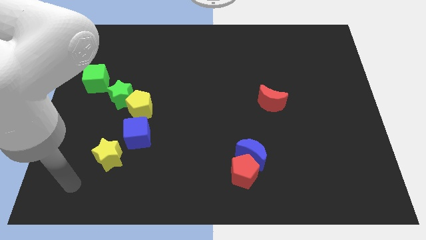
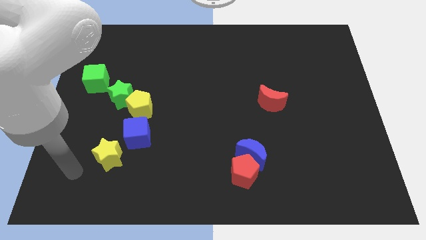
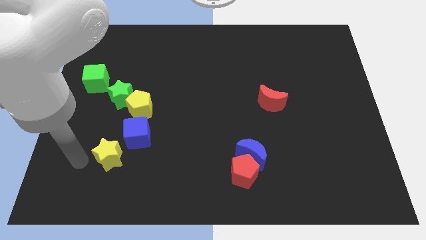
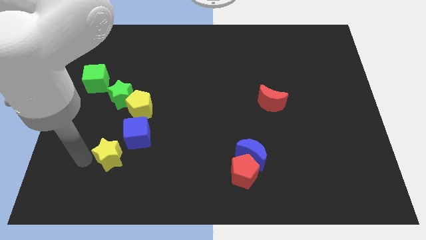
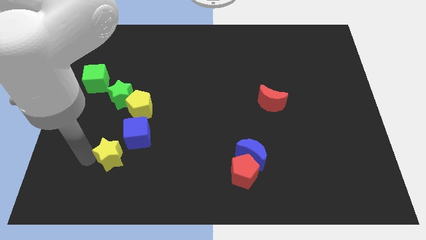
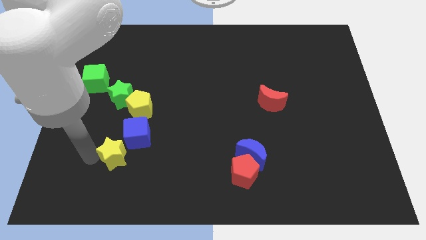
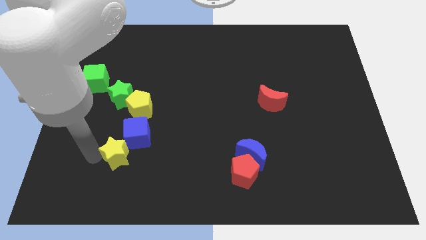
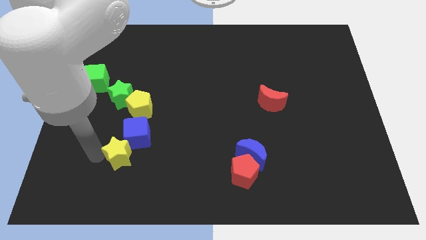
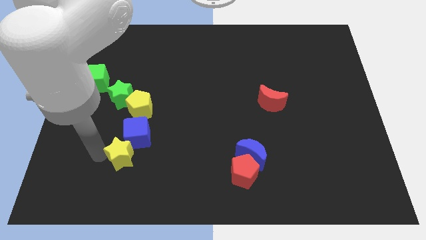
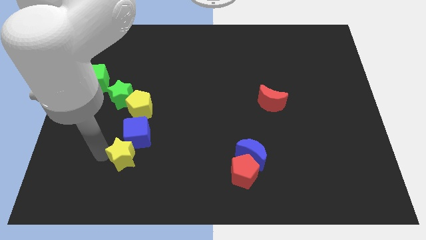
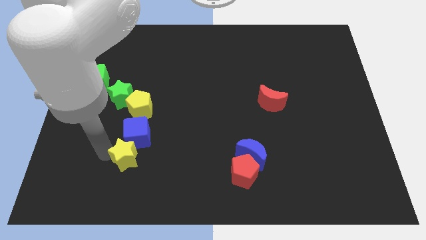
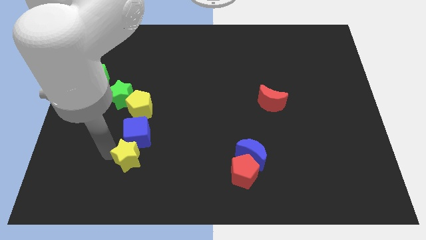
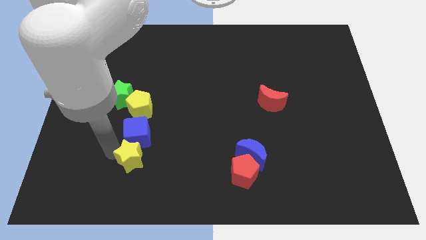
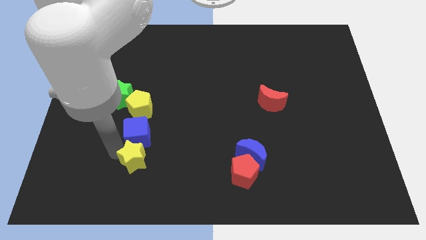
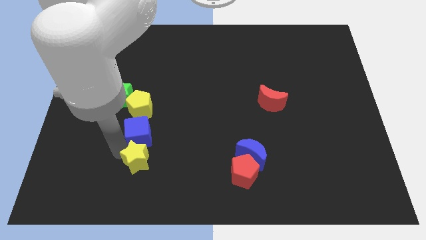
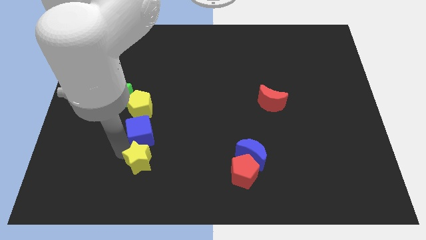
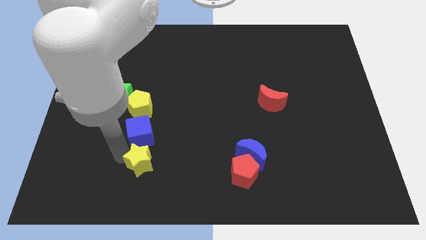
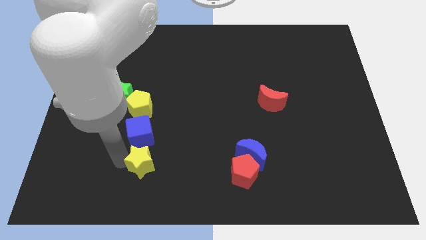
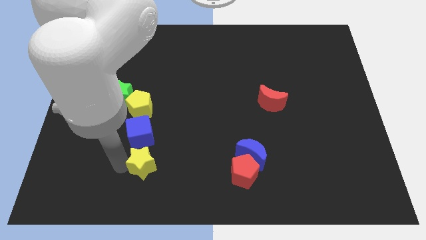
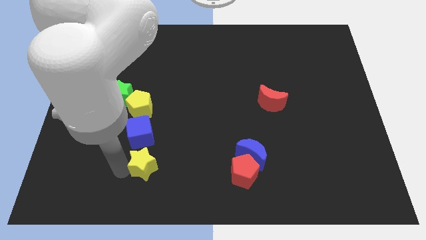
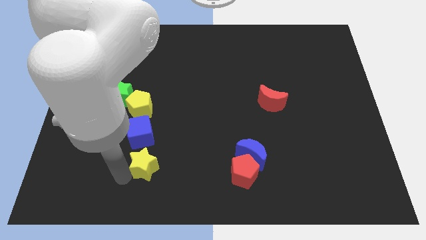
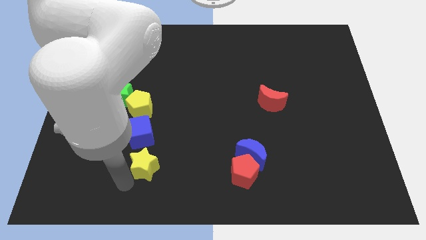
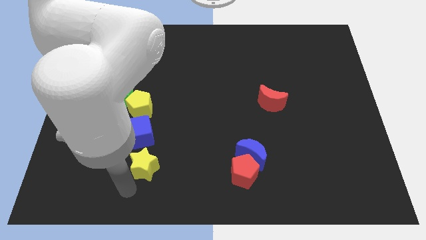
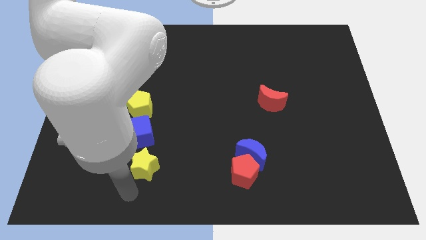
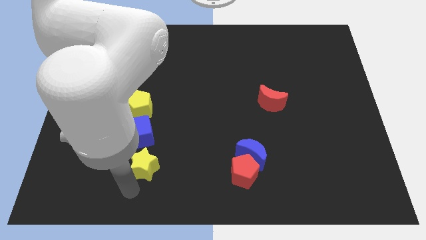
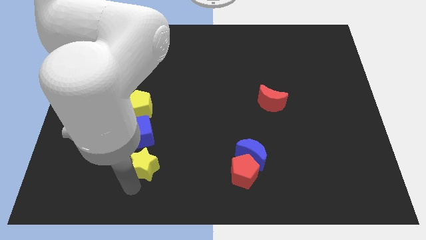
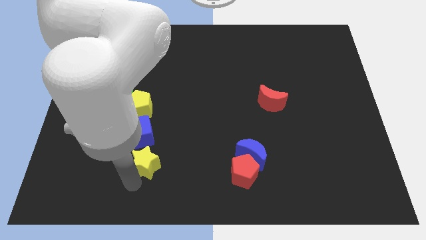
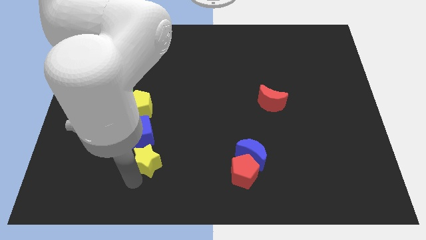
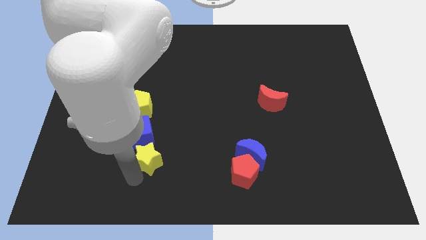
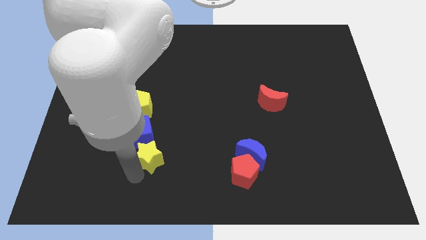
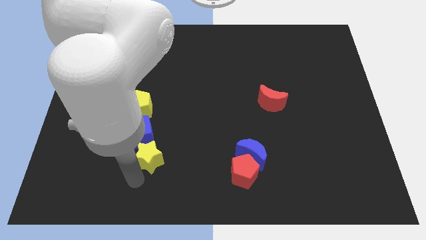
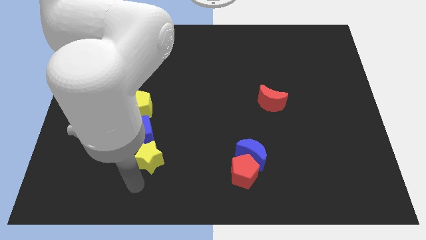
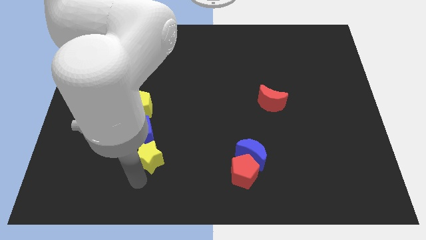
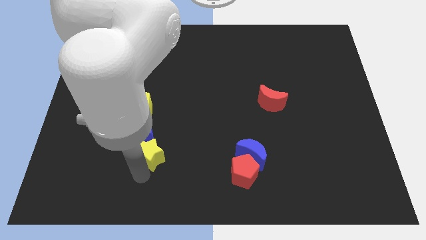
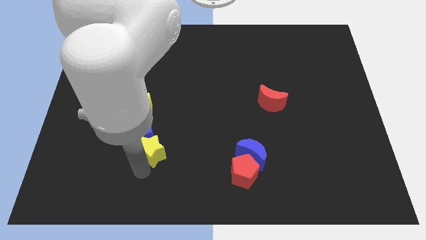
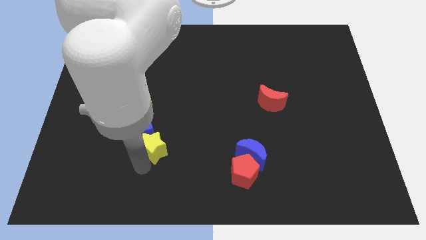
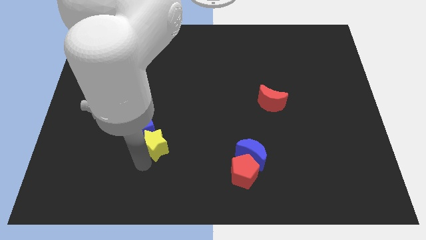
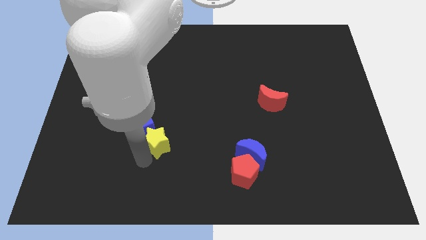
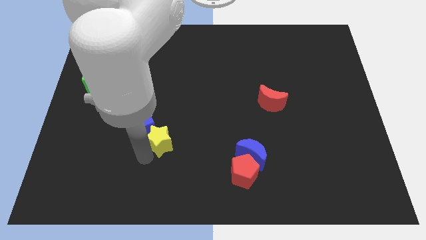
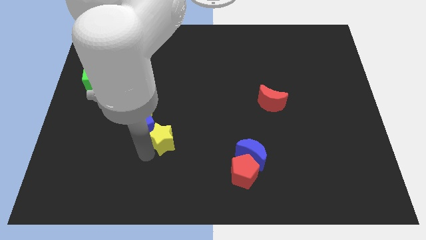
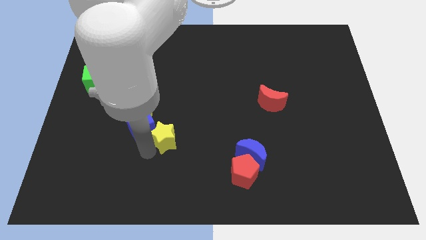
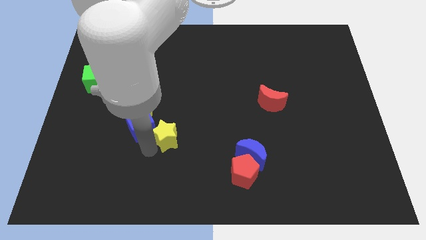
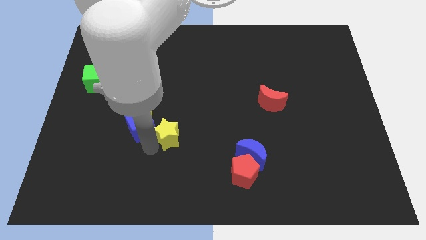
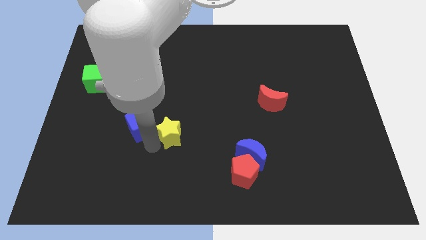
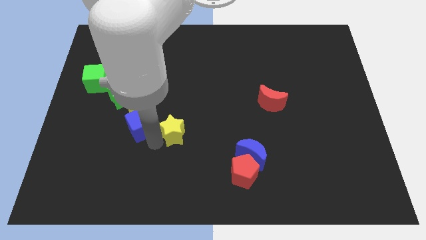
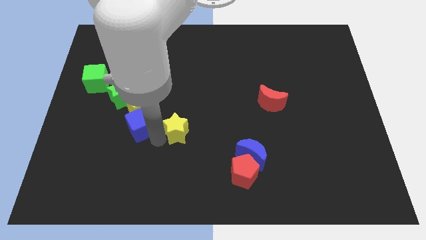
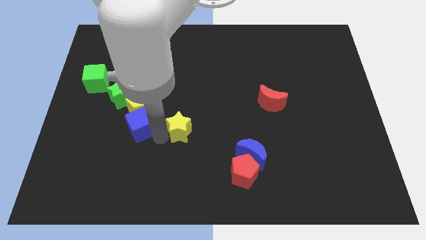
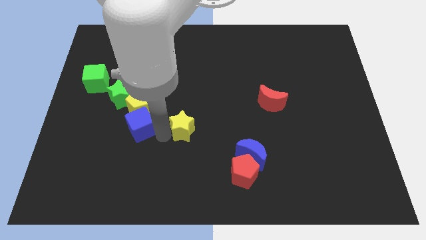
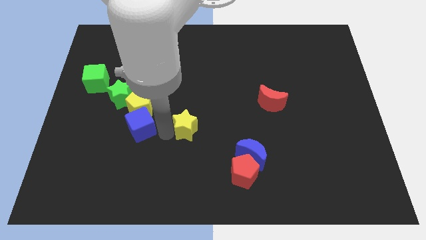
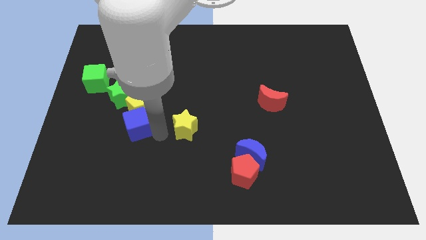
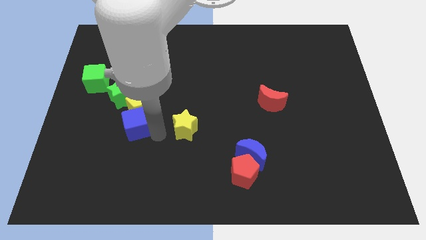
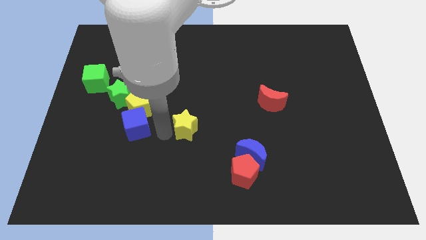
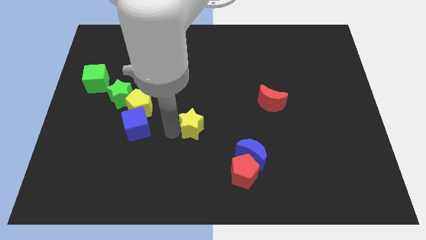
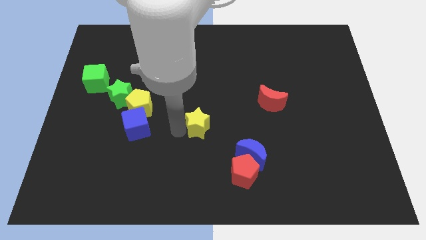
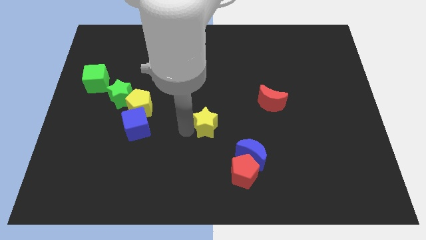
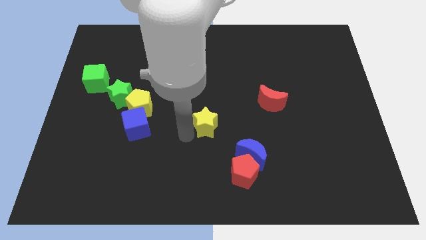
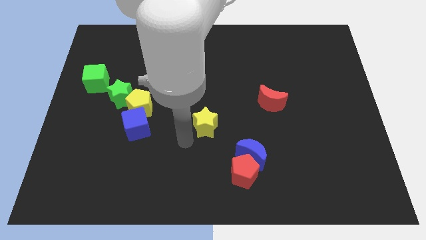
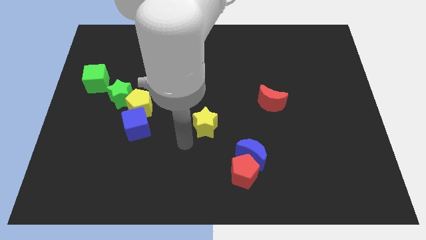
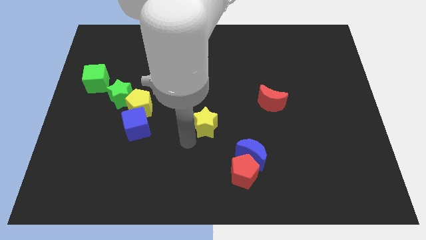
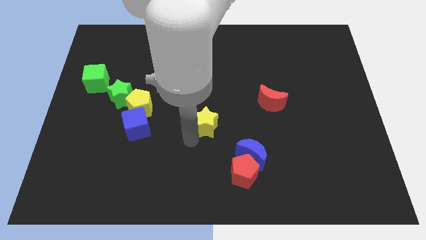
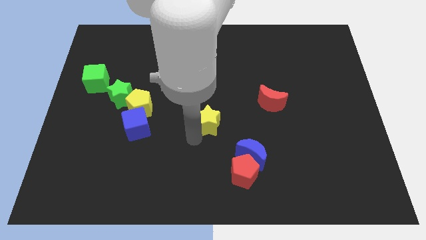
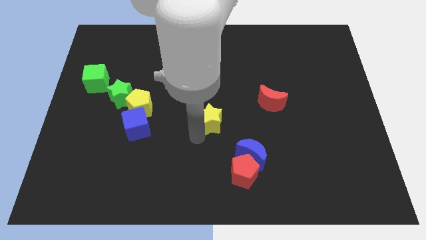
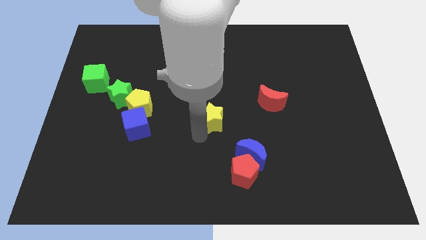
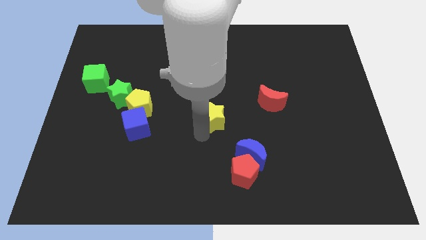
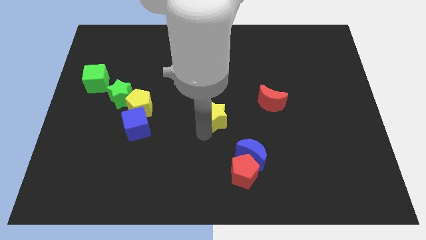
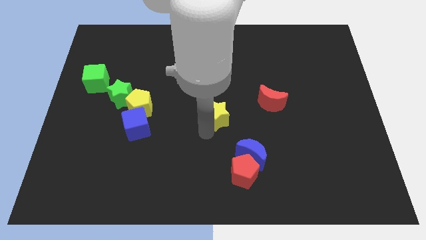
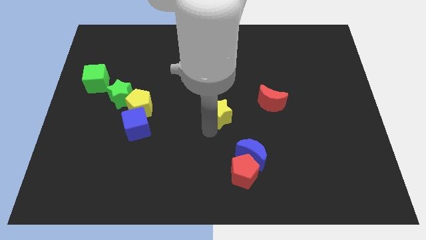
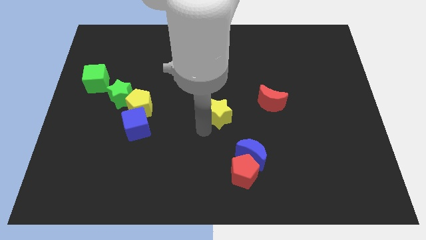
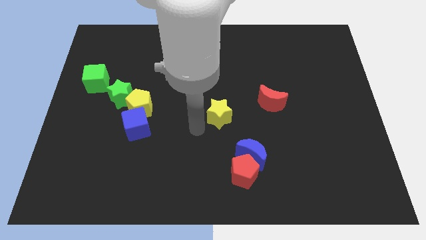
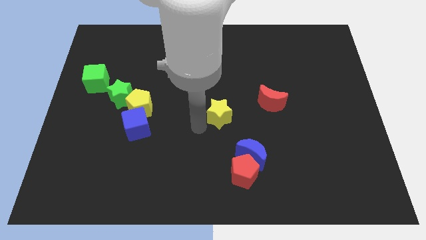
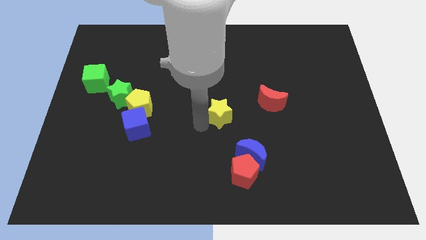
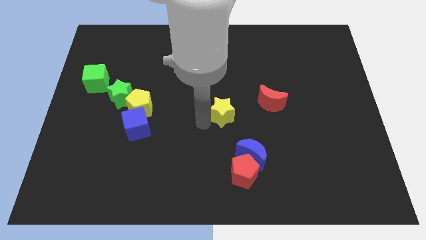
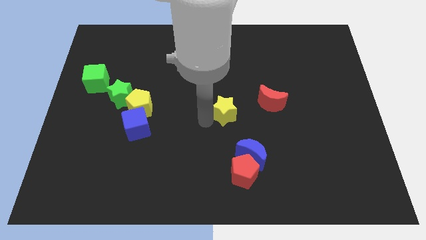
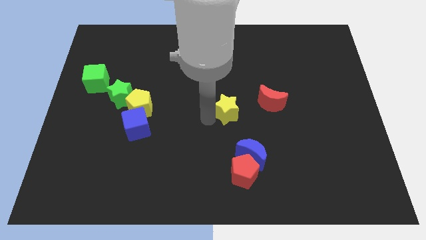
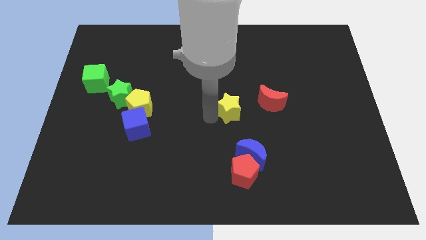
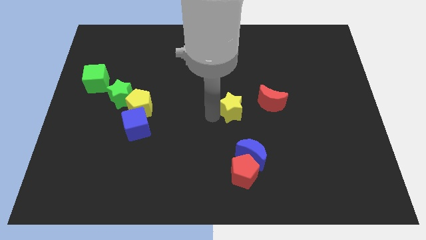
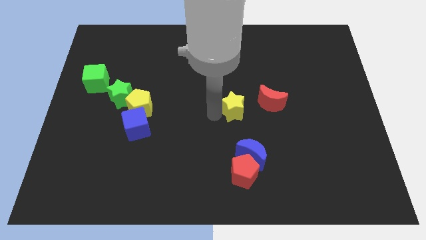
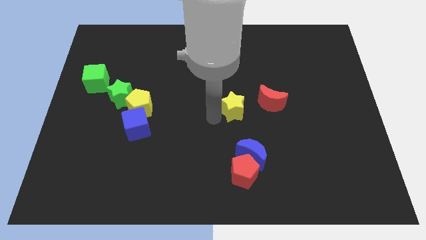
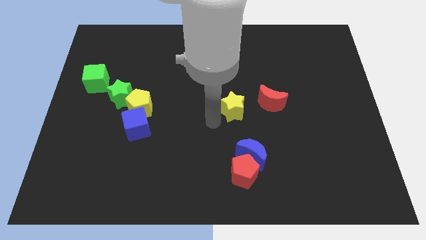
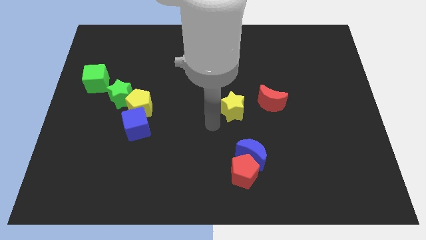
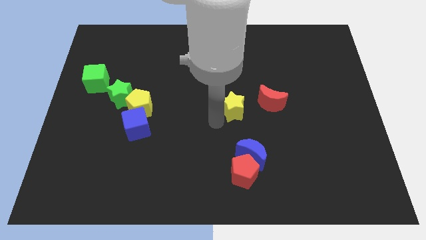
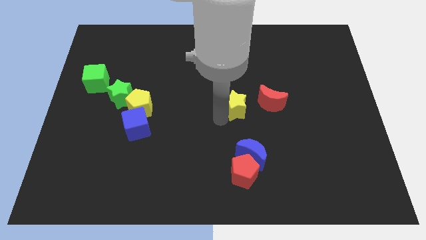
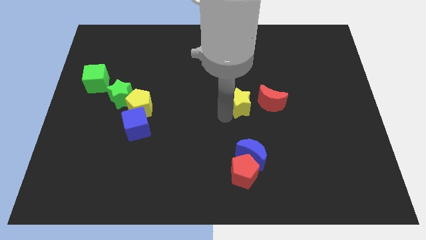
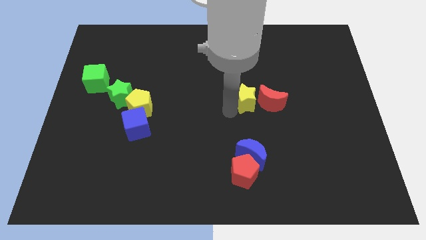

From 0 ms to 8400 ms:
move the yellow star to the red moon
